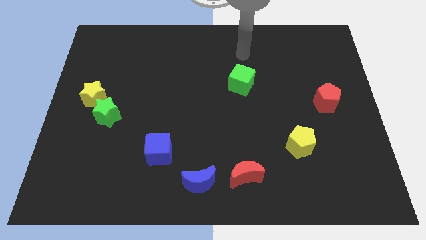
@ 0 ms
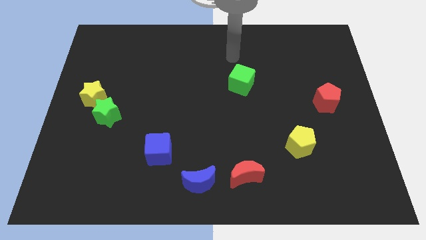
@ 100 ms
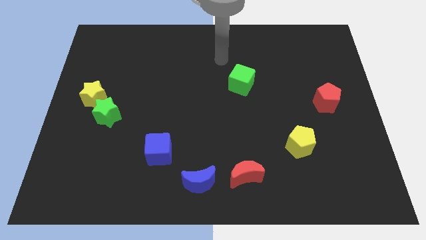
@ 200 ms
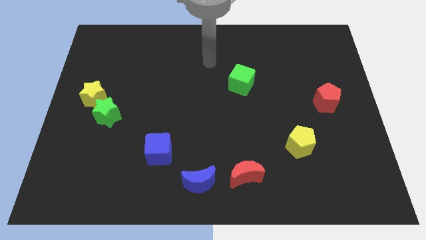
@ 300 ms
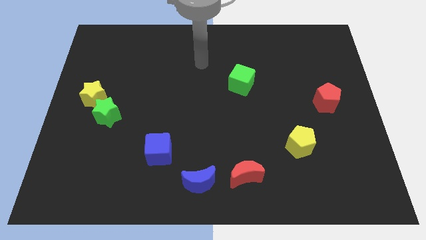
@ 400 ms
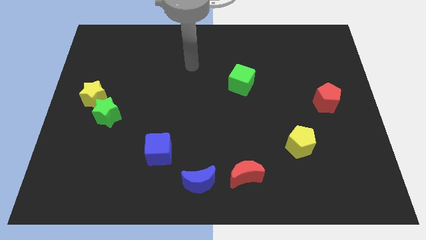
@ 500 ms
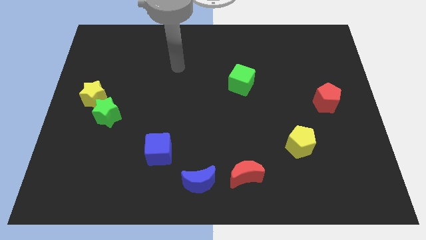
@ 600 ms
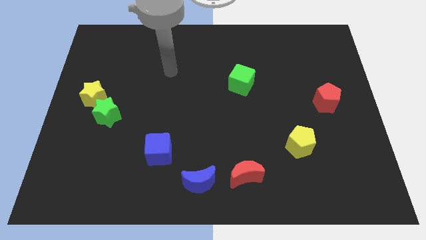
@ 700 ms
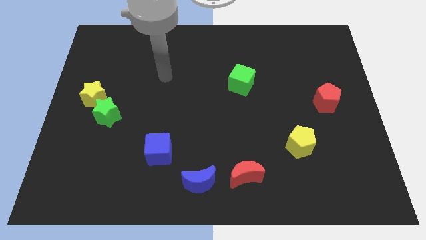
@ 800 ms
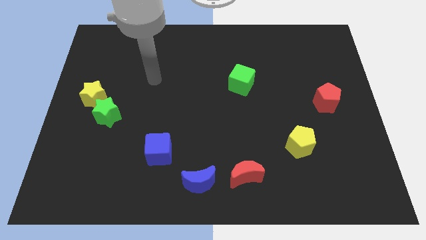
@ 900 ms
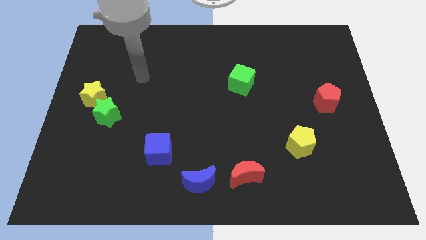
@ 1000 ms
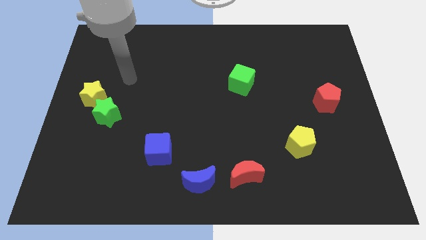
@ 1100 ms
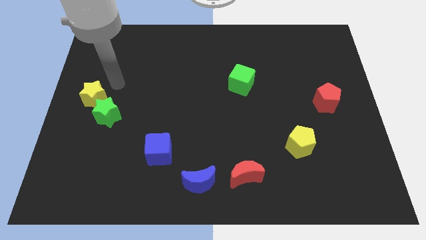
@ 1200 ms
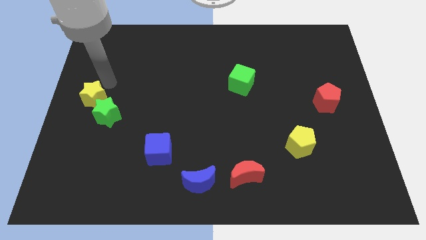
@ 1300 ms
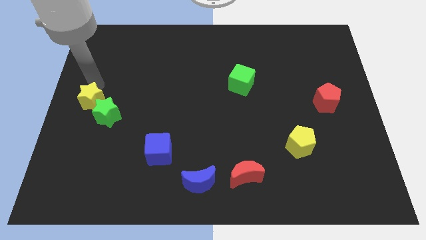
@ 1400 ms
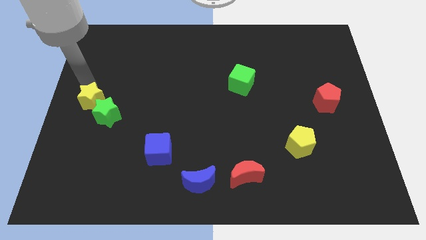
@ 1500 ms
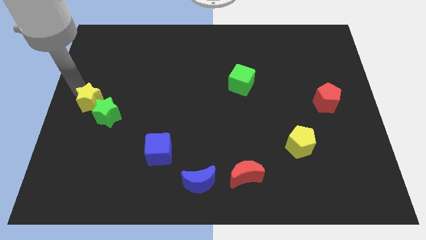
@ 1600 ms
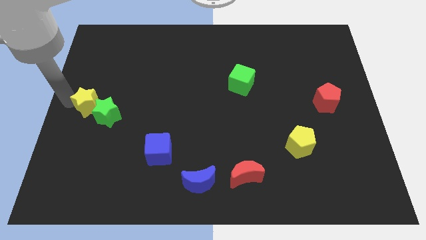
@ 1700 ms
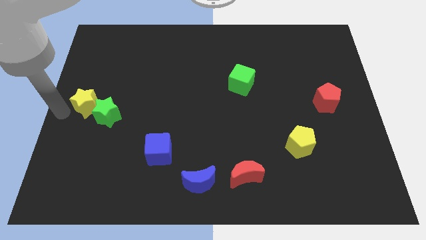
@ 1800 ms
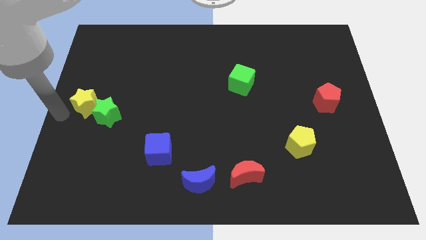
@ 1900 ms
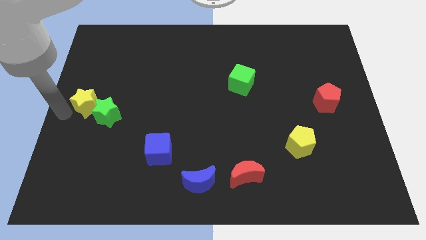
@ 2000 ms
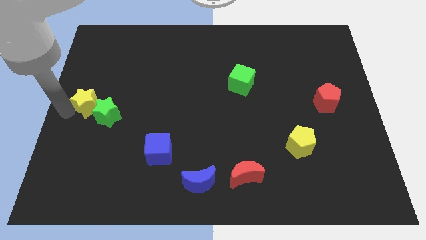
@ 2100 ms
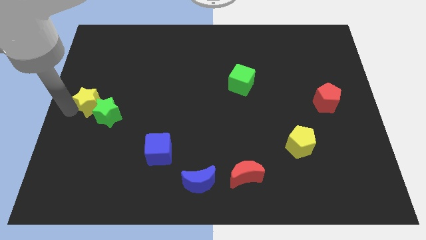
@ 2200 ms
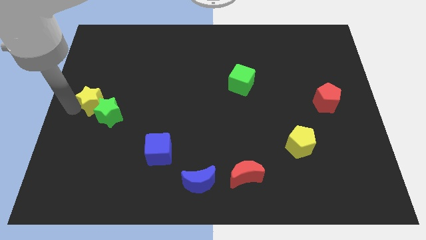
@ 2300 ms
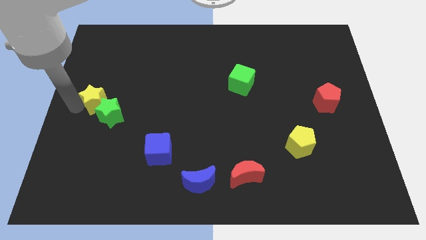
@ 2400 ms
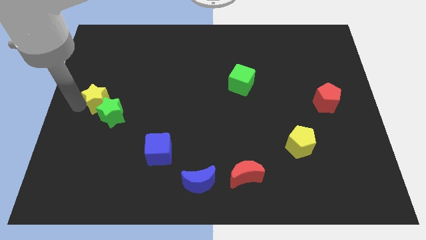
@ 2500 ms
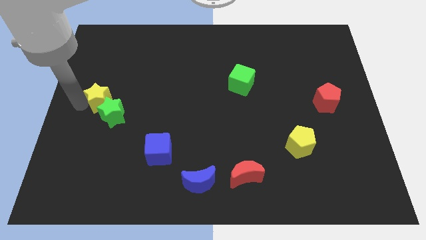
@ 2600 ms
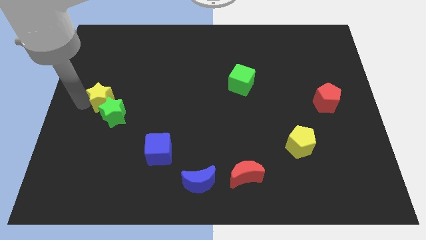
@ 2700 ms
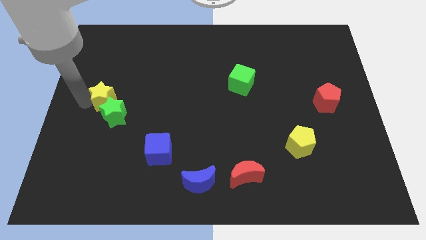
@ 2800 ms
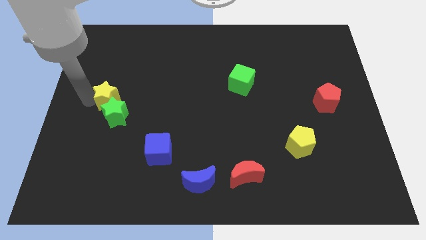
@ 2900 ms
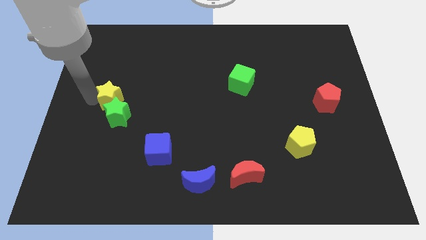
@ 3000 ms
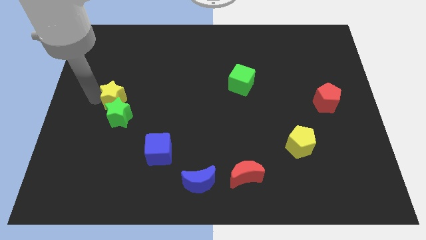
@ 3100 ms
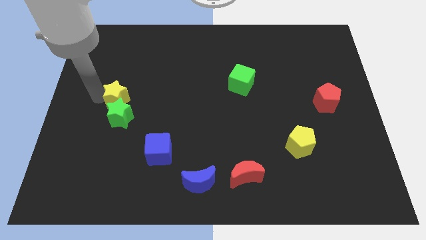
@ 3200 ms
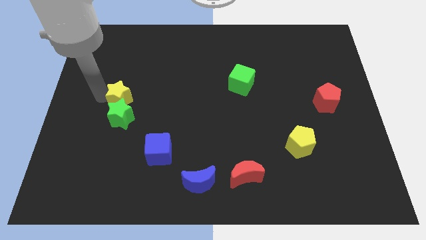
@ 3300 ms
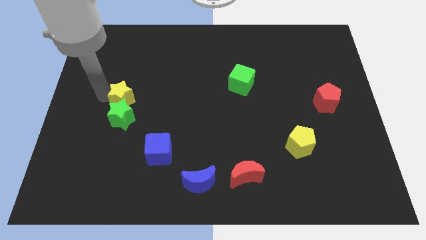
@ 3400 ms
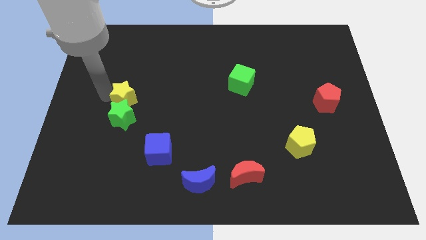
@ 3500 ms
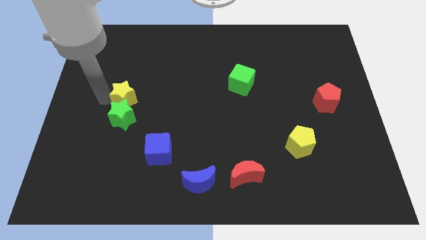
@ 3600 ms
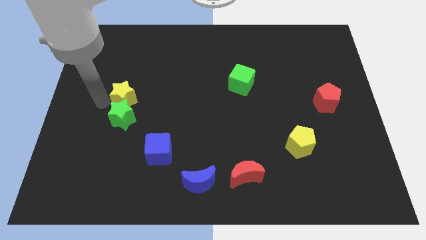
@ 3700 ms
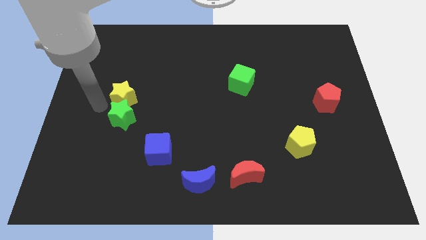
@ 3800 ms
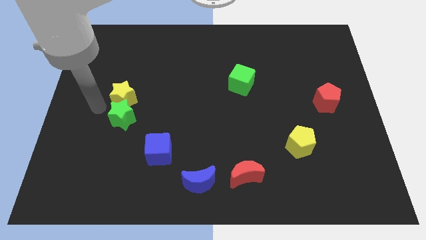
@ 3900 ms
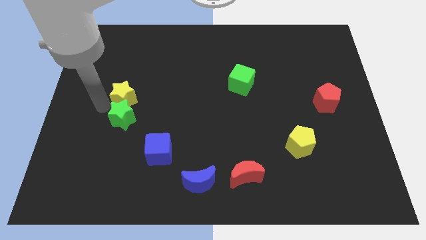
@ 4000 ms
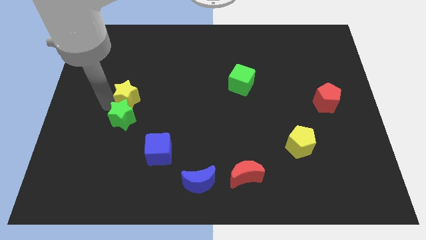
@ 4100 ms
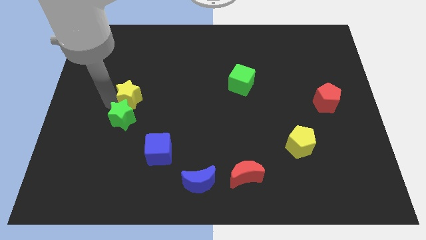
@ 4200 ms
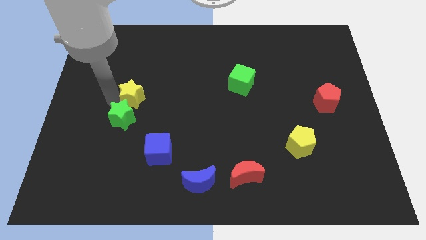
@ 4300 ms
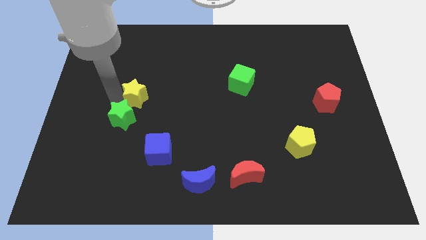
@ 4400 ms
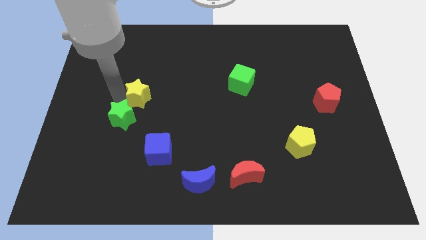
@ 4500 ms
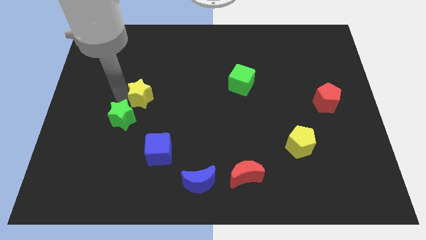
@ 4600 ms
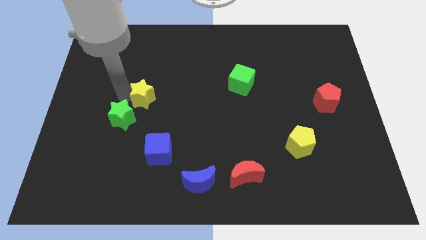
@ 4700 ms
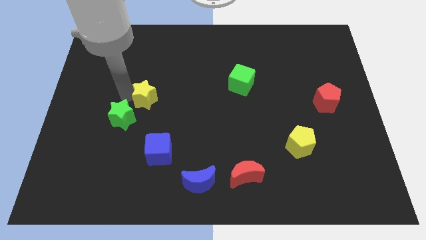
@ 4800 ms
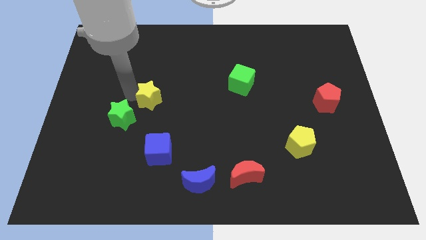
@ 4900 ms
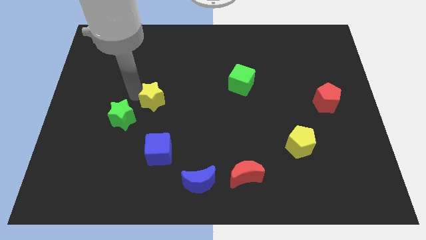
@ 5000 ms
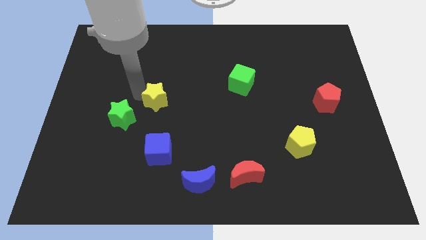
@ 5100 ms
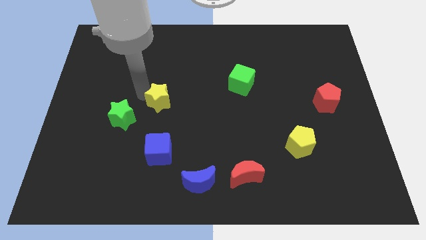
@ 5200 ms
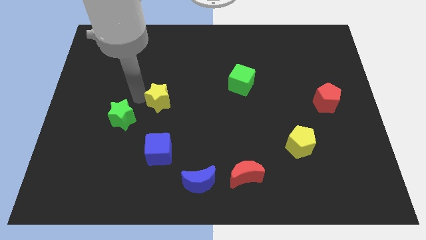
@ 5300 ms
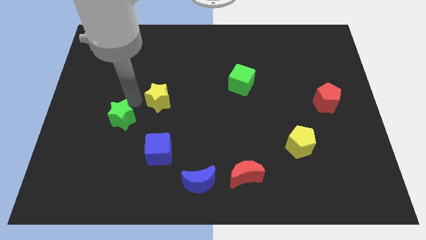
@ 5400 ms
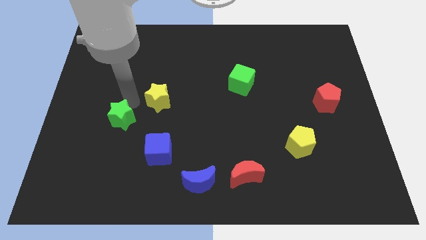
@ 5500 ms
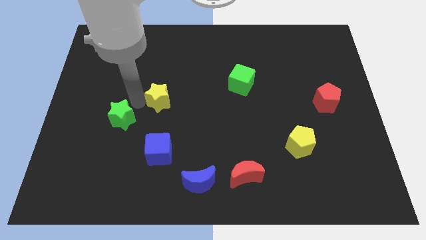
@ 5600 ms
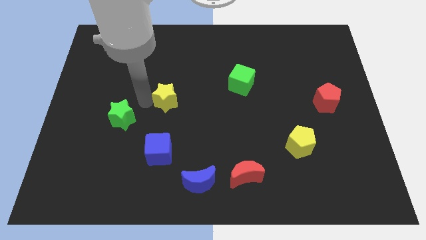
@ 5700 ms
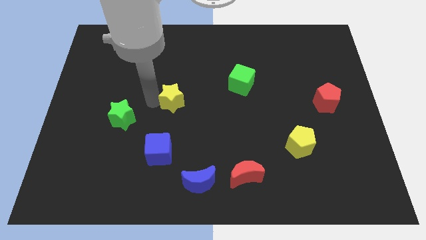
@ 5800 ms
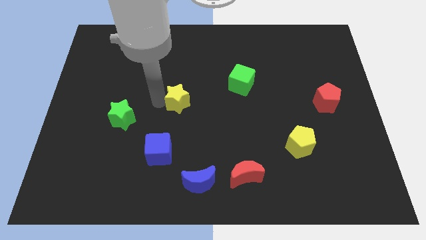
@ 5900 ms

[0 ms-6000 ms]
move the yellow star to the right

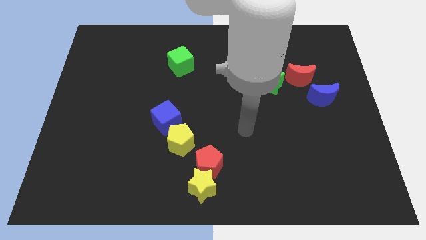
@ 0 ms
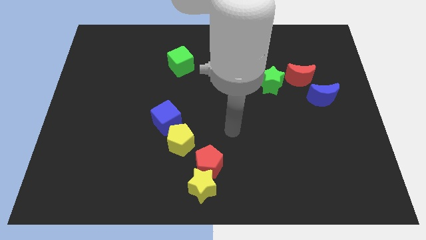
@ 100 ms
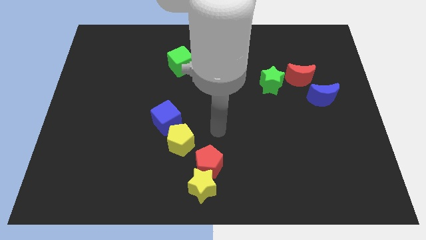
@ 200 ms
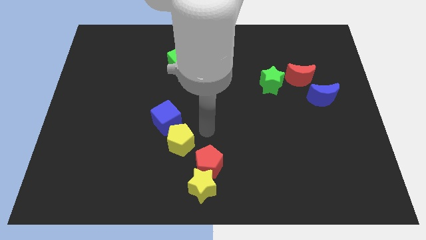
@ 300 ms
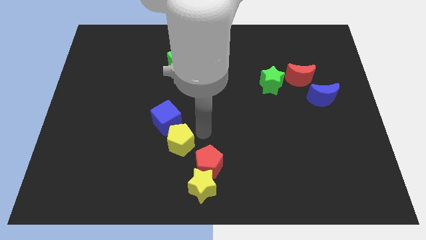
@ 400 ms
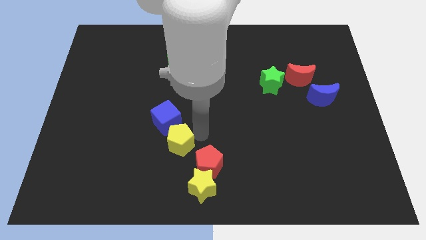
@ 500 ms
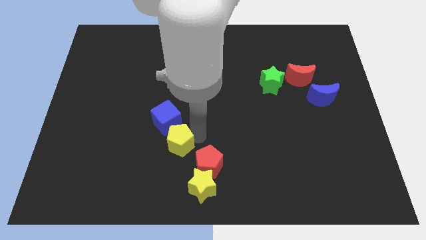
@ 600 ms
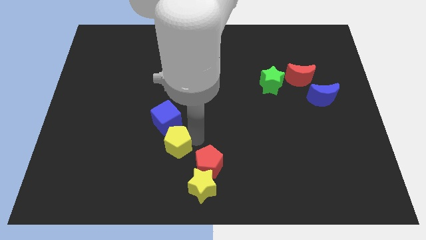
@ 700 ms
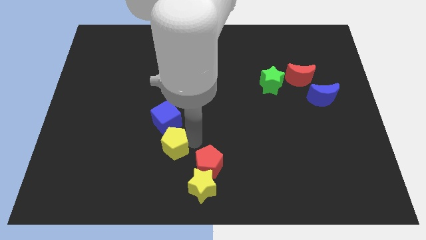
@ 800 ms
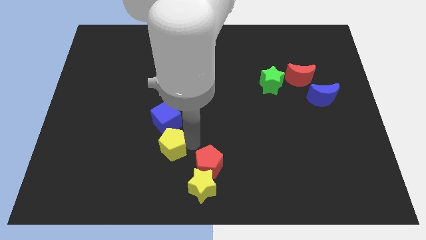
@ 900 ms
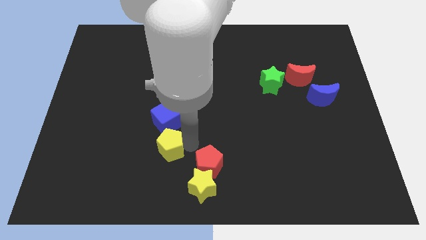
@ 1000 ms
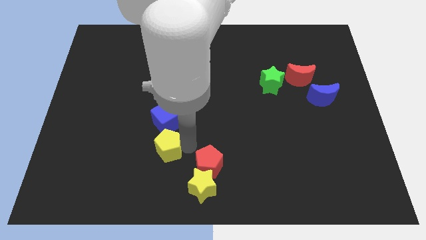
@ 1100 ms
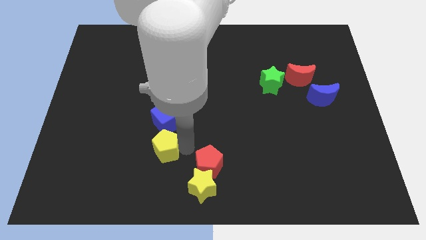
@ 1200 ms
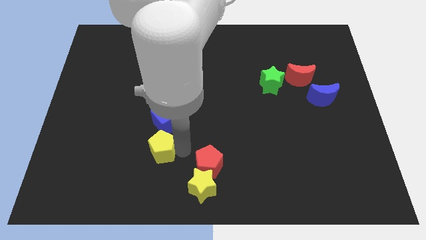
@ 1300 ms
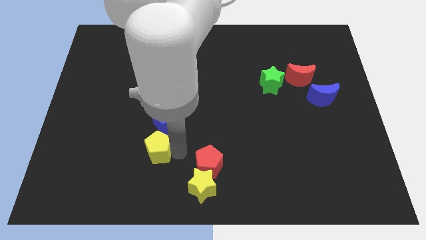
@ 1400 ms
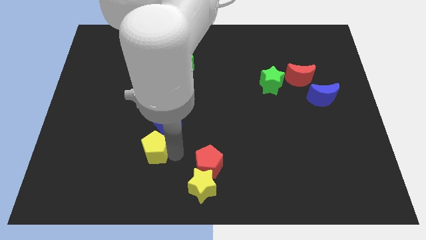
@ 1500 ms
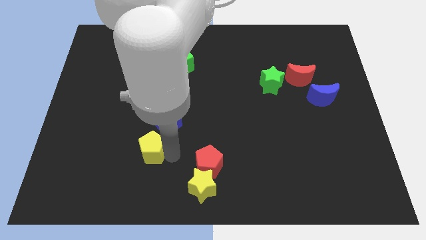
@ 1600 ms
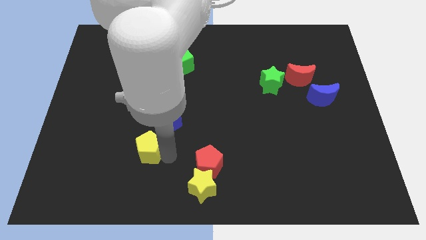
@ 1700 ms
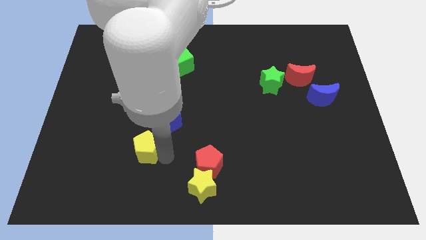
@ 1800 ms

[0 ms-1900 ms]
move the yellow pentagon to the left a little bit
